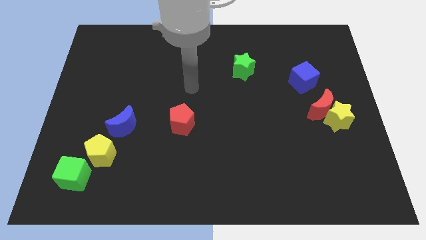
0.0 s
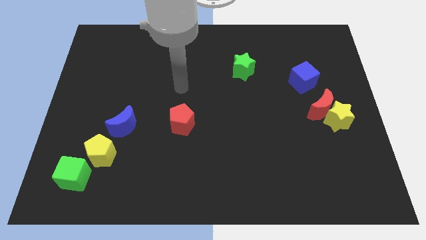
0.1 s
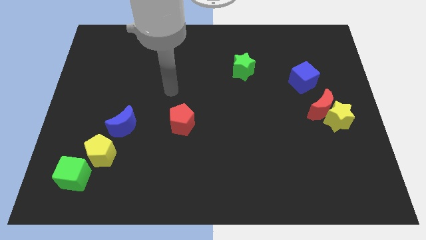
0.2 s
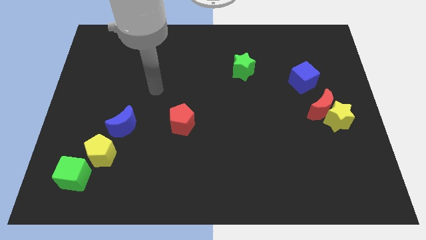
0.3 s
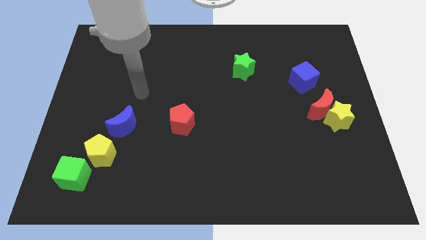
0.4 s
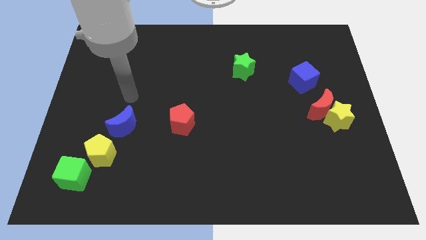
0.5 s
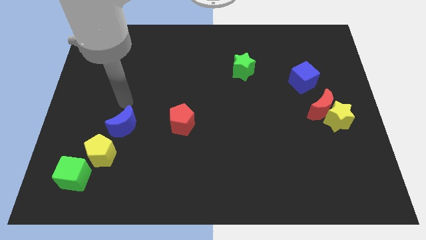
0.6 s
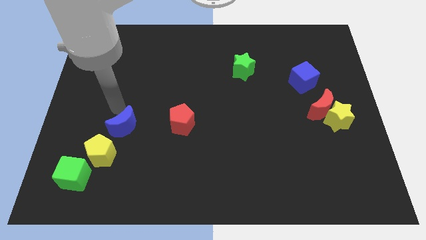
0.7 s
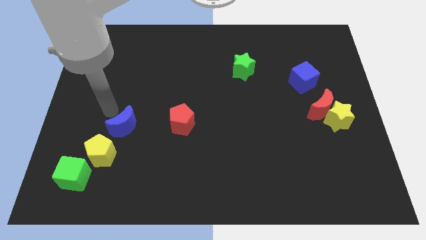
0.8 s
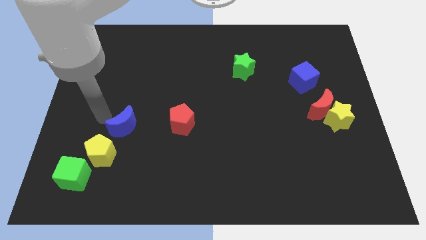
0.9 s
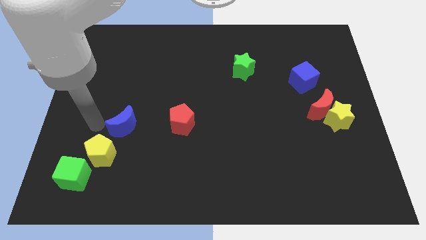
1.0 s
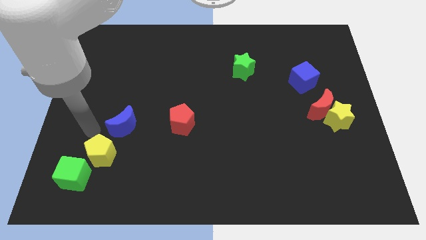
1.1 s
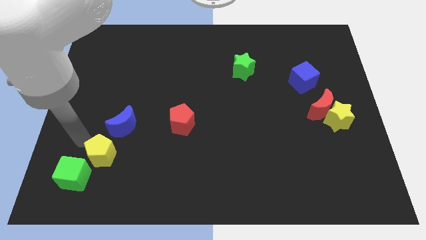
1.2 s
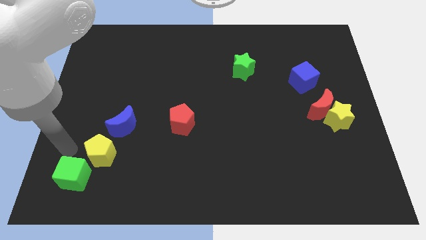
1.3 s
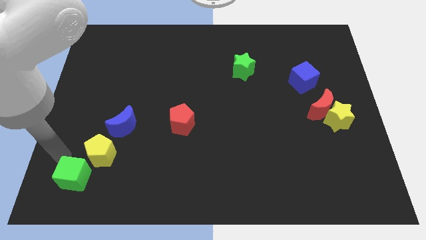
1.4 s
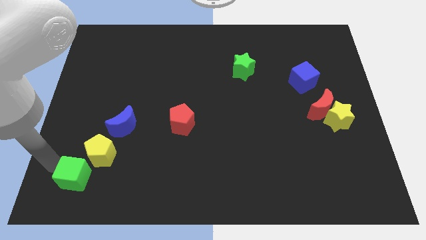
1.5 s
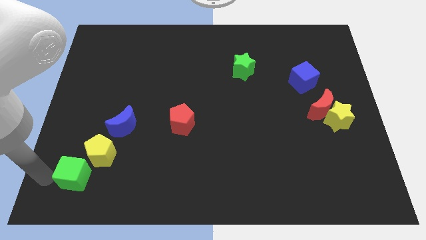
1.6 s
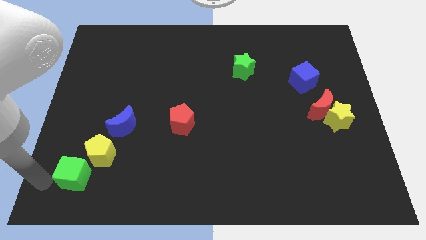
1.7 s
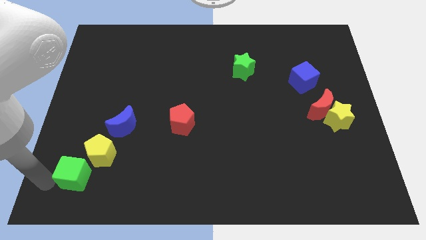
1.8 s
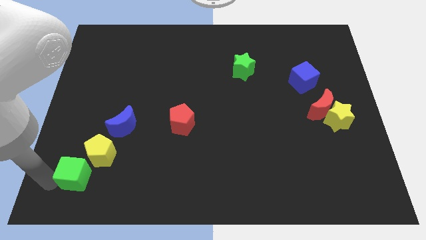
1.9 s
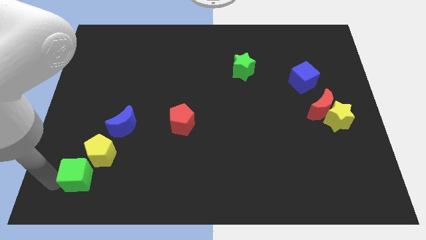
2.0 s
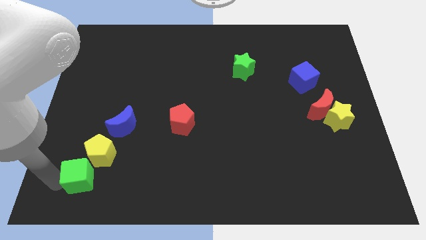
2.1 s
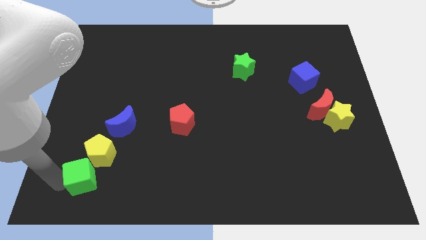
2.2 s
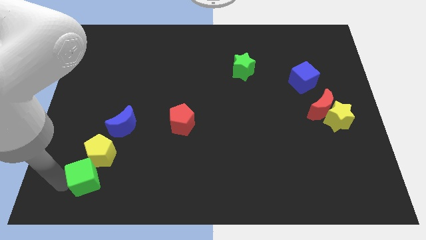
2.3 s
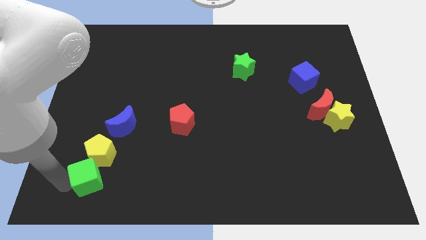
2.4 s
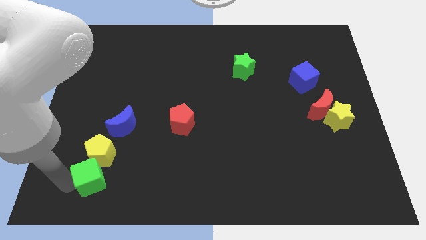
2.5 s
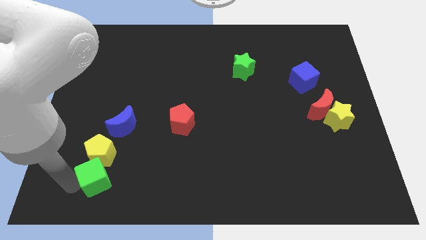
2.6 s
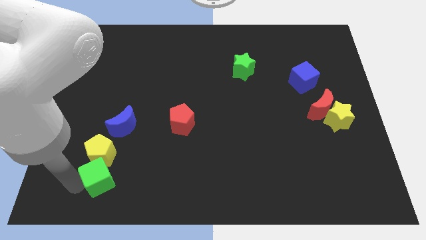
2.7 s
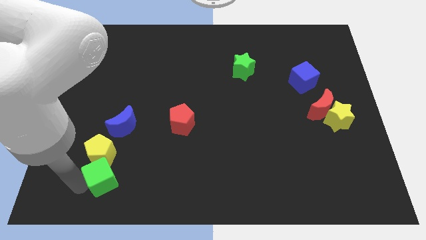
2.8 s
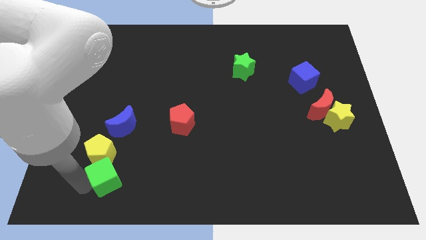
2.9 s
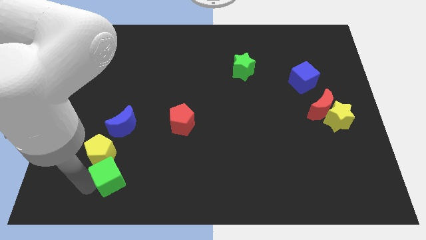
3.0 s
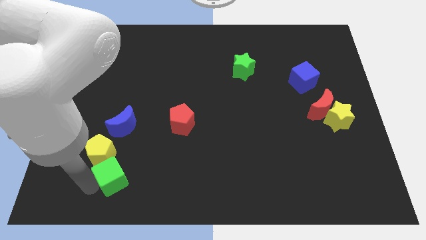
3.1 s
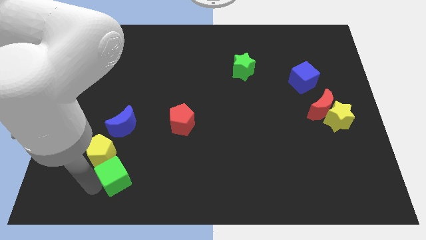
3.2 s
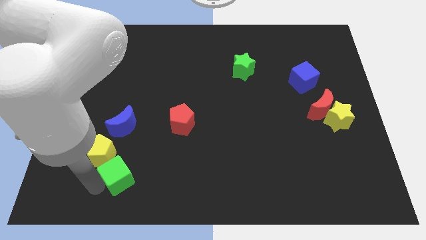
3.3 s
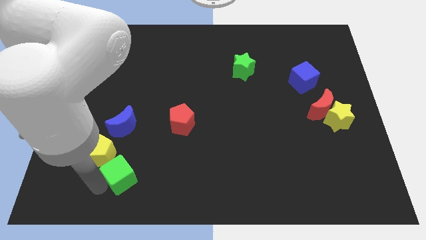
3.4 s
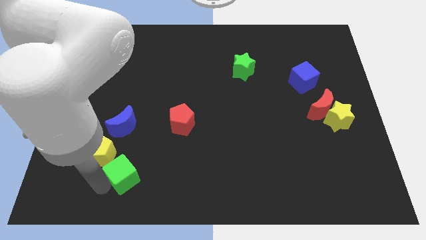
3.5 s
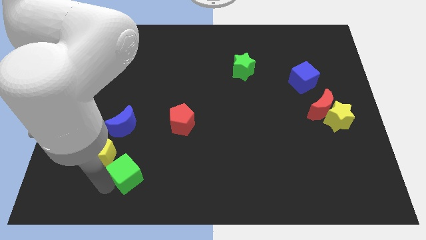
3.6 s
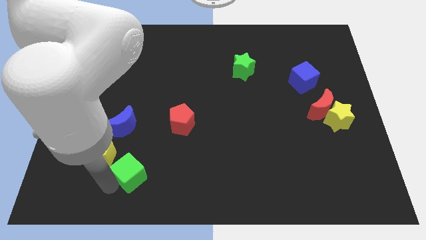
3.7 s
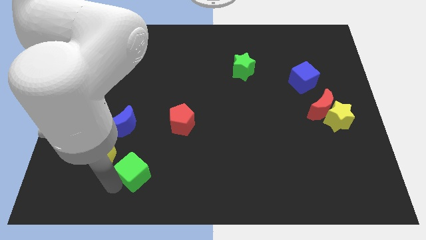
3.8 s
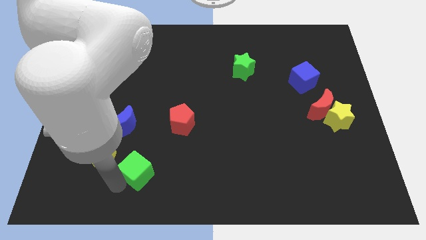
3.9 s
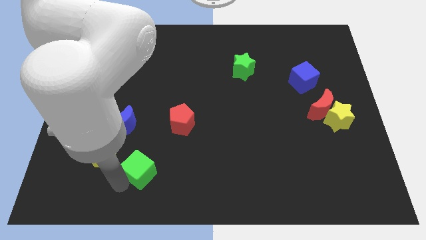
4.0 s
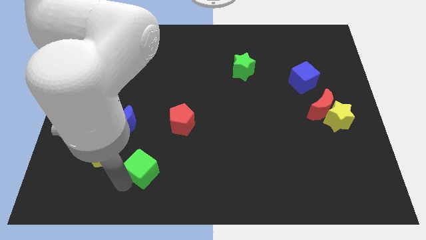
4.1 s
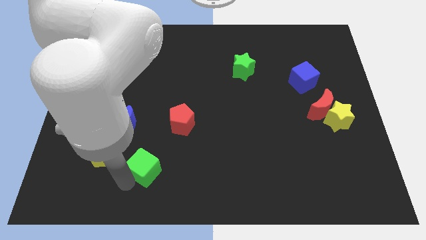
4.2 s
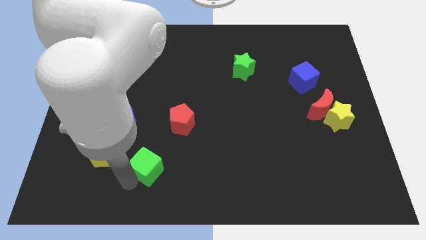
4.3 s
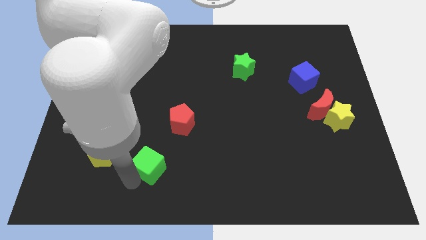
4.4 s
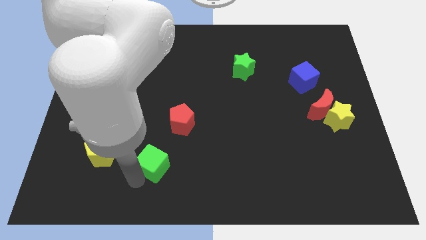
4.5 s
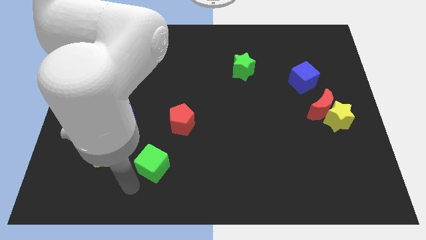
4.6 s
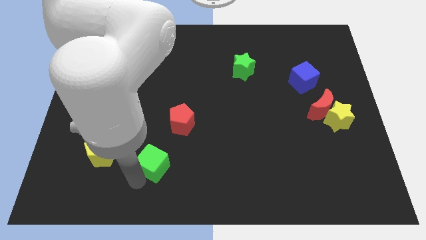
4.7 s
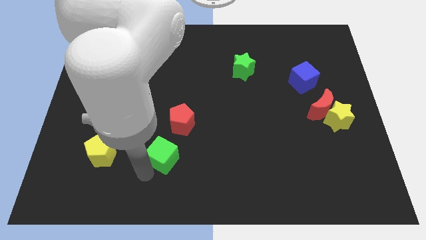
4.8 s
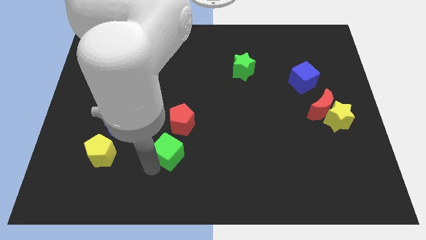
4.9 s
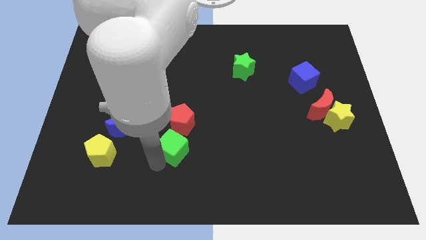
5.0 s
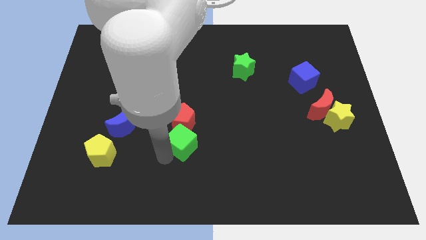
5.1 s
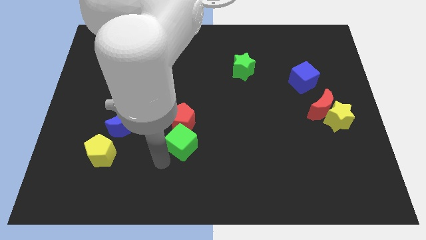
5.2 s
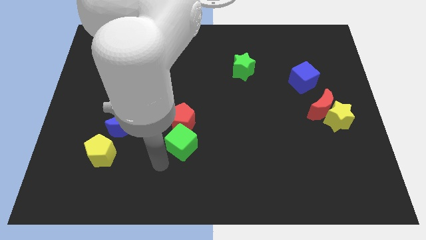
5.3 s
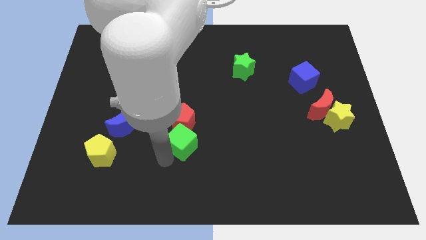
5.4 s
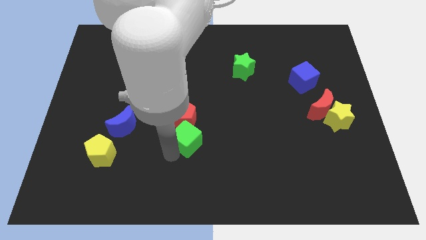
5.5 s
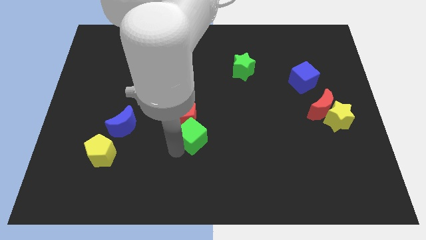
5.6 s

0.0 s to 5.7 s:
move the green cube to the middle
